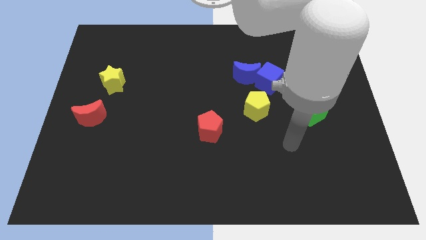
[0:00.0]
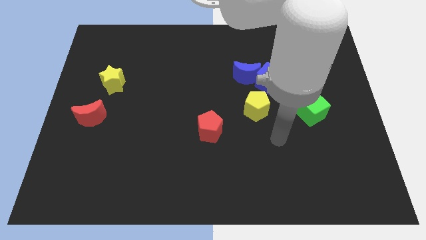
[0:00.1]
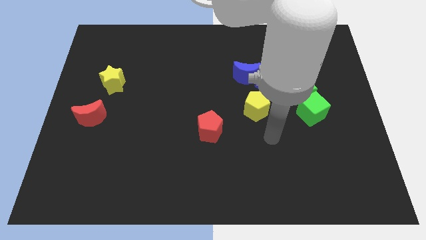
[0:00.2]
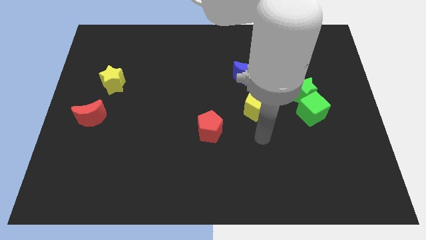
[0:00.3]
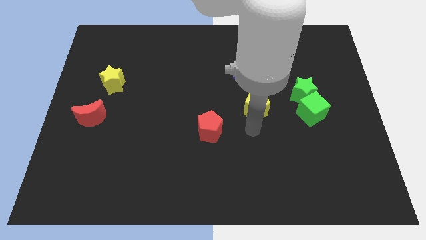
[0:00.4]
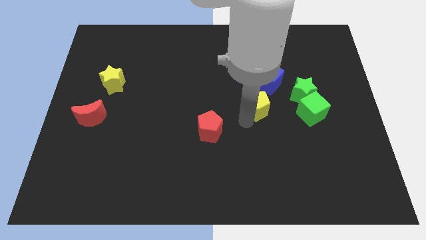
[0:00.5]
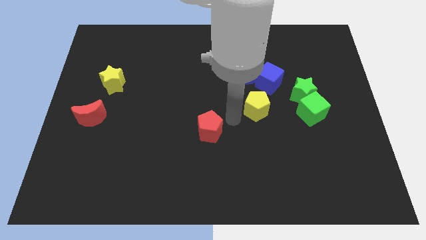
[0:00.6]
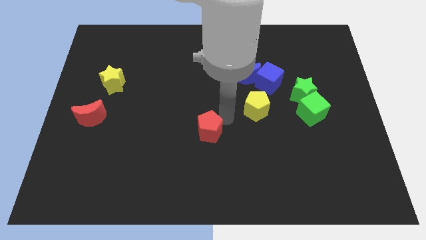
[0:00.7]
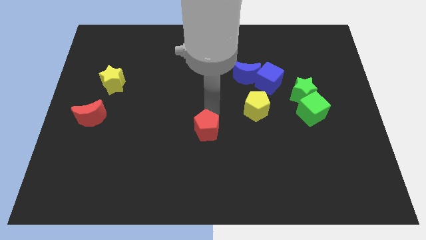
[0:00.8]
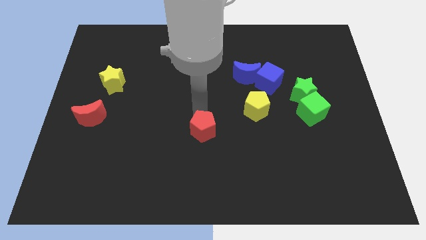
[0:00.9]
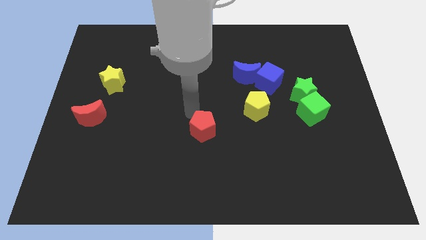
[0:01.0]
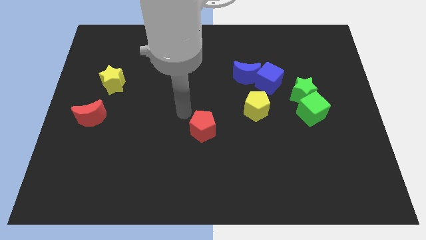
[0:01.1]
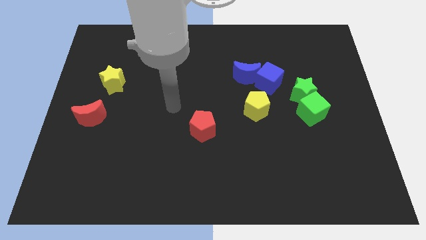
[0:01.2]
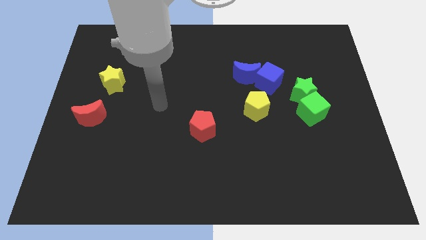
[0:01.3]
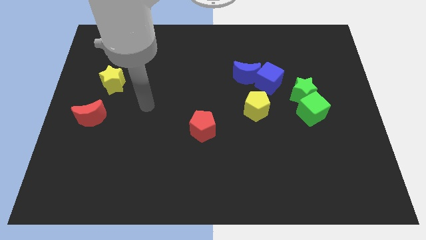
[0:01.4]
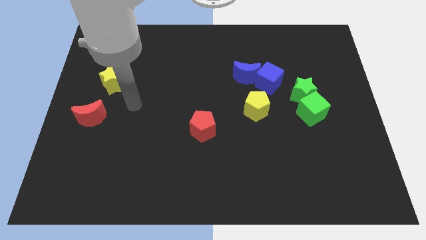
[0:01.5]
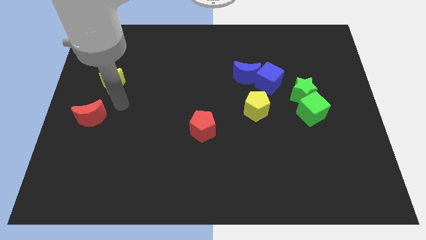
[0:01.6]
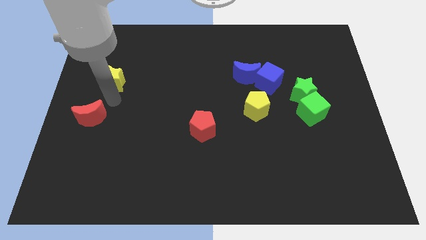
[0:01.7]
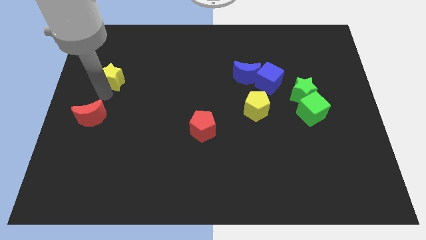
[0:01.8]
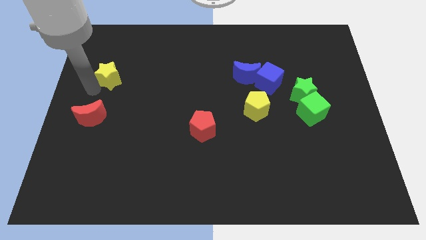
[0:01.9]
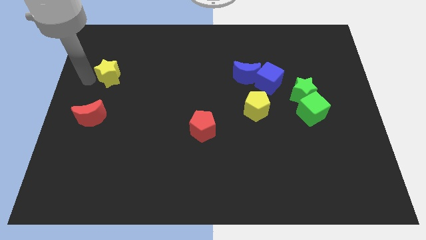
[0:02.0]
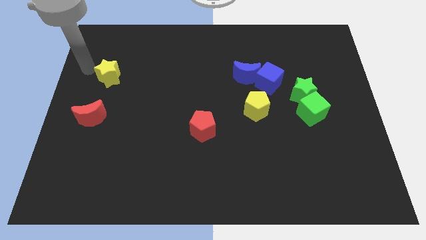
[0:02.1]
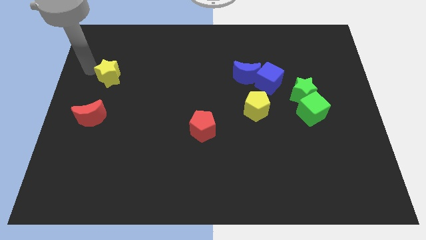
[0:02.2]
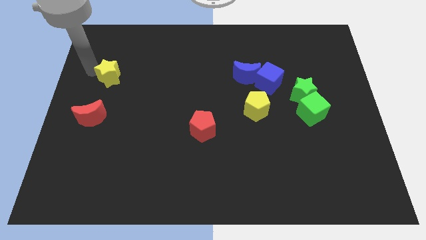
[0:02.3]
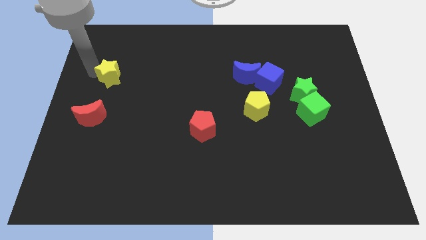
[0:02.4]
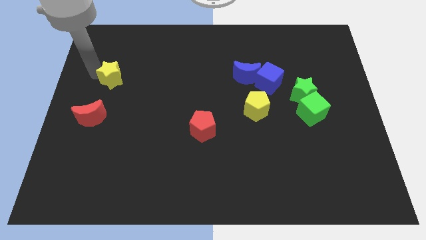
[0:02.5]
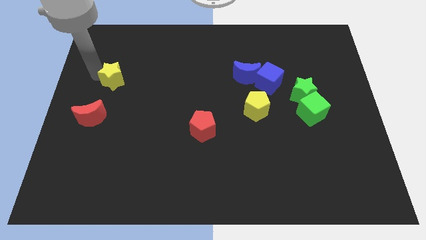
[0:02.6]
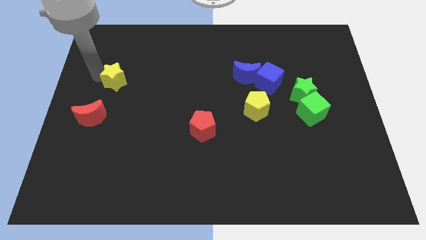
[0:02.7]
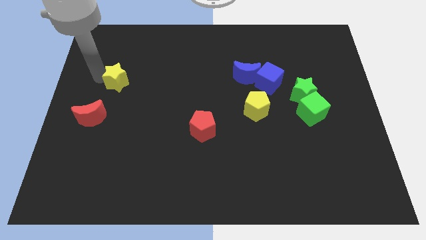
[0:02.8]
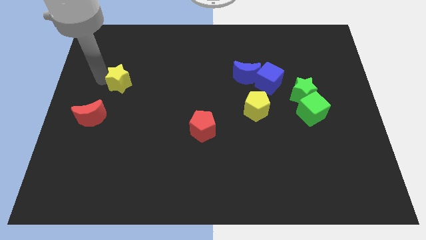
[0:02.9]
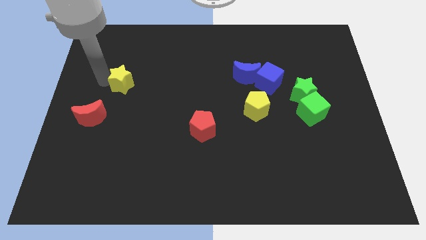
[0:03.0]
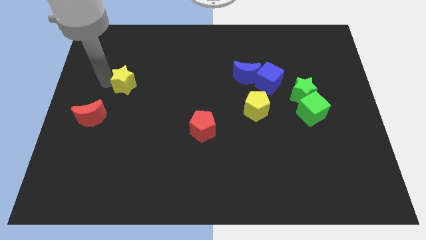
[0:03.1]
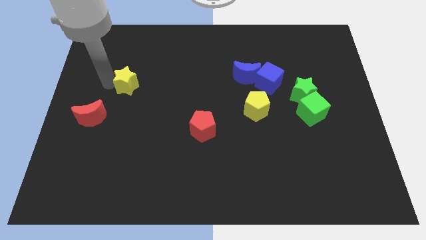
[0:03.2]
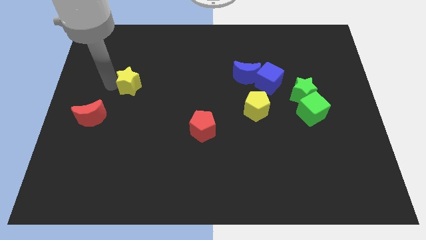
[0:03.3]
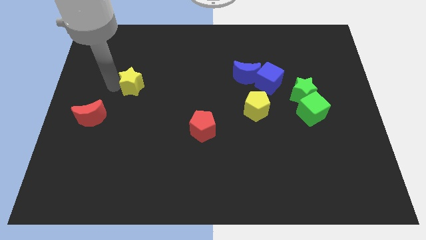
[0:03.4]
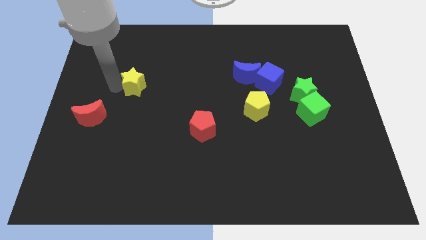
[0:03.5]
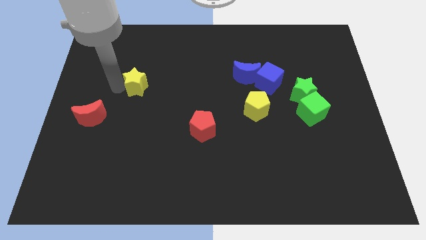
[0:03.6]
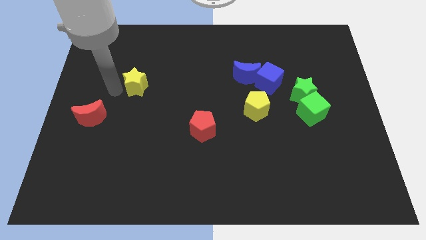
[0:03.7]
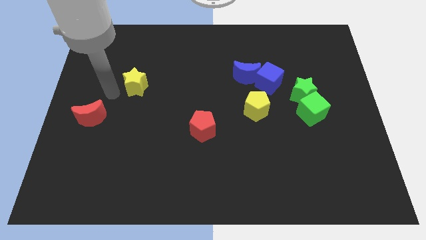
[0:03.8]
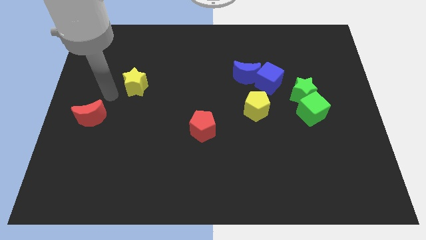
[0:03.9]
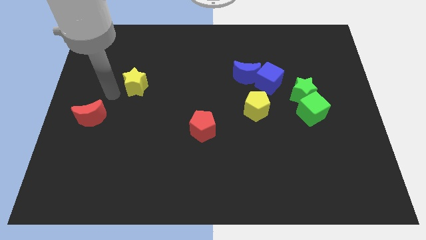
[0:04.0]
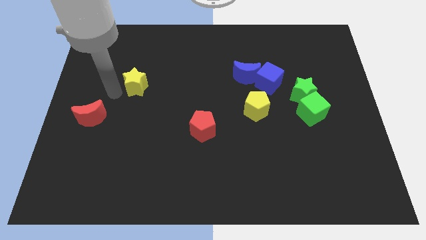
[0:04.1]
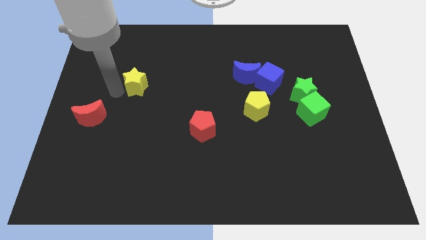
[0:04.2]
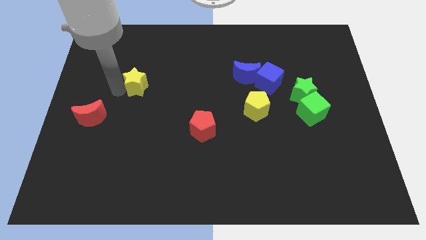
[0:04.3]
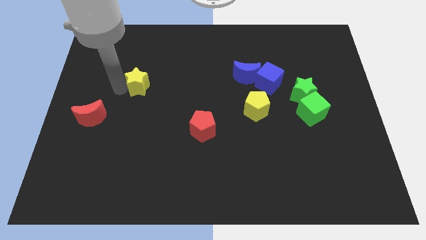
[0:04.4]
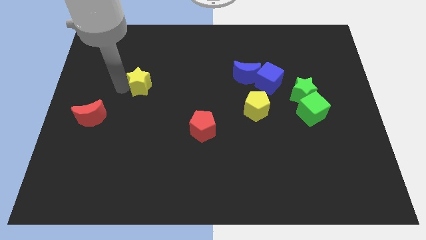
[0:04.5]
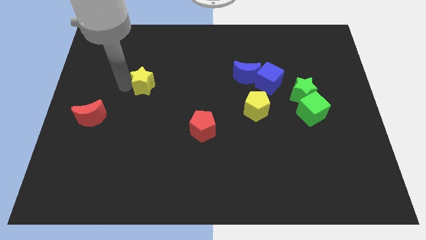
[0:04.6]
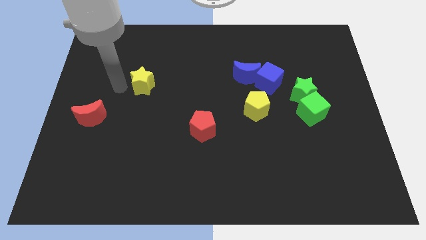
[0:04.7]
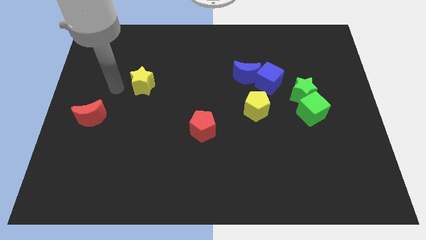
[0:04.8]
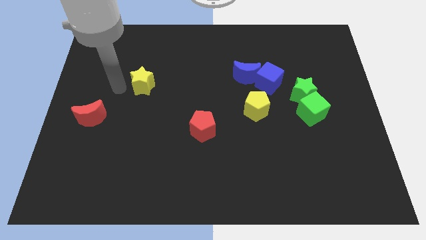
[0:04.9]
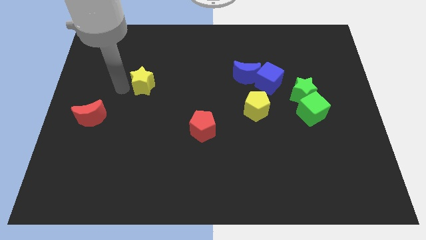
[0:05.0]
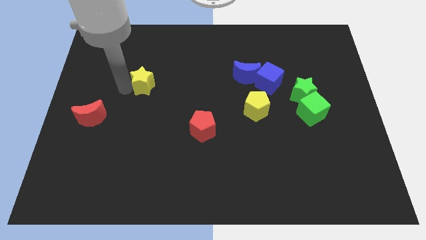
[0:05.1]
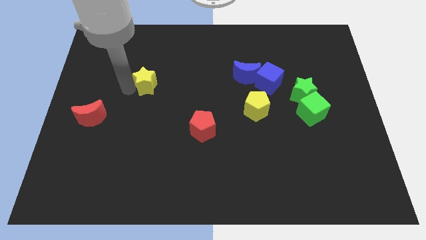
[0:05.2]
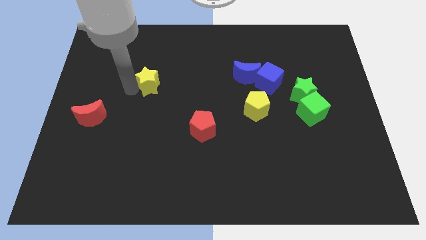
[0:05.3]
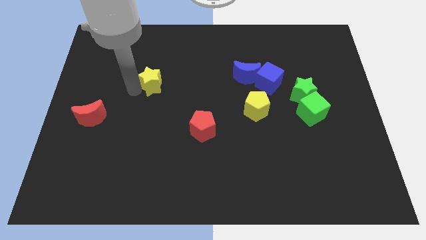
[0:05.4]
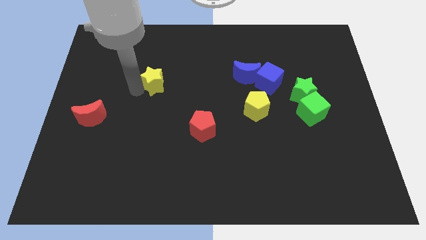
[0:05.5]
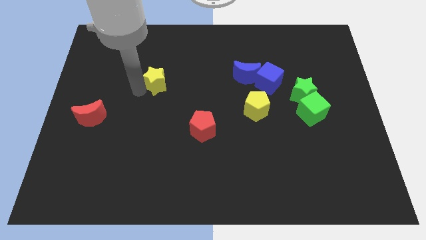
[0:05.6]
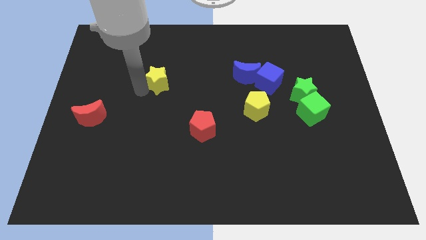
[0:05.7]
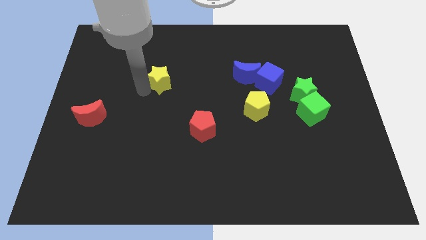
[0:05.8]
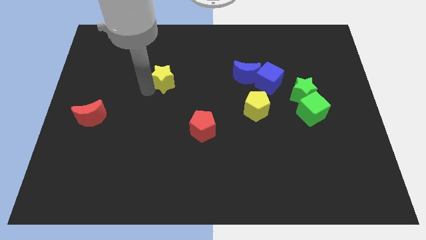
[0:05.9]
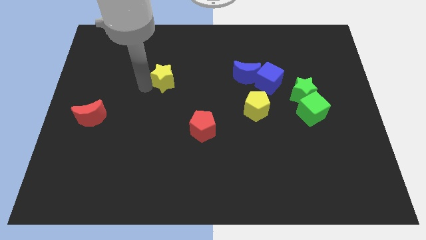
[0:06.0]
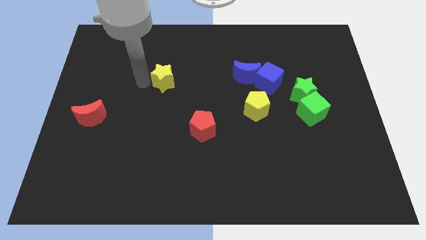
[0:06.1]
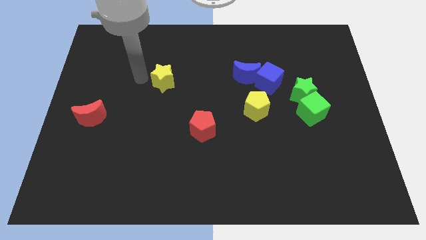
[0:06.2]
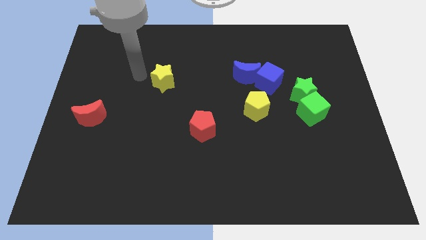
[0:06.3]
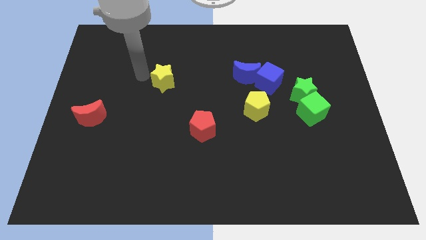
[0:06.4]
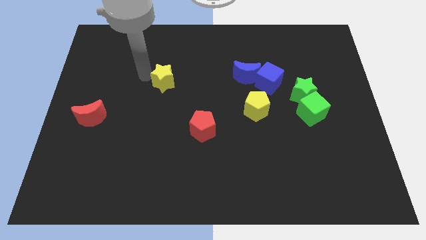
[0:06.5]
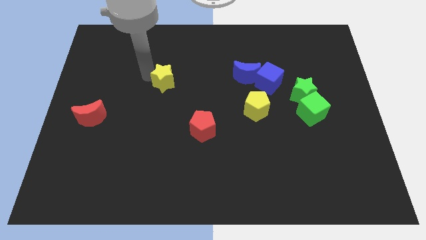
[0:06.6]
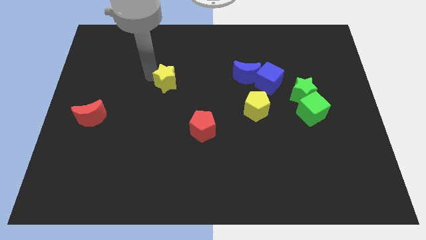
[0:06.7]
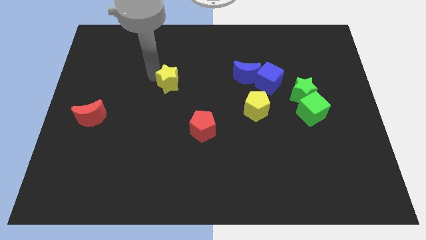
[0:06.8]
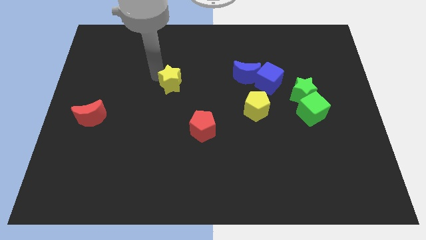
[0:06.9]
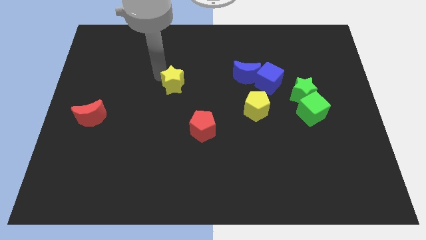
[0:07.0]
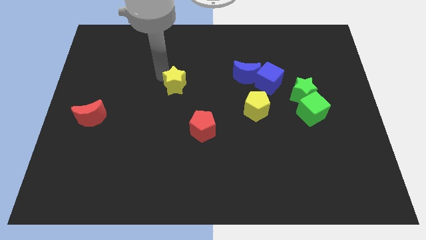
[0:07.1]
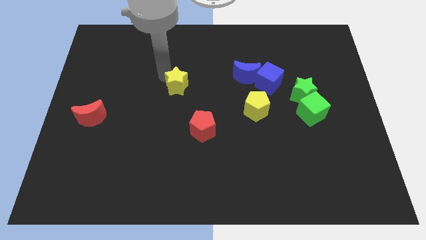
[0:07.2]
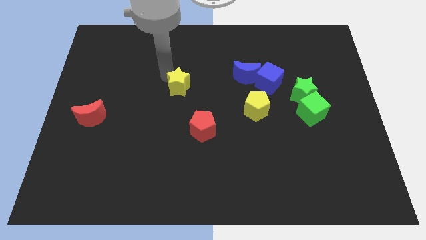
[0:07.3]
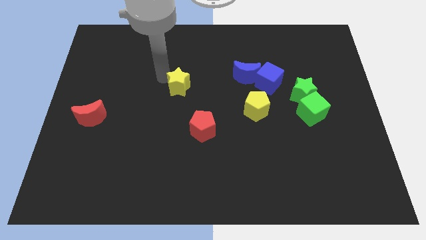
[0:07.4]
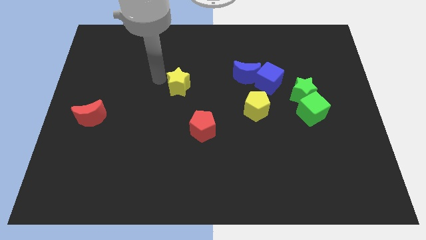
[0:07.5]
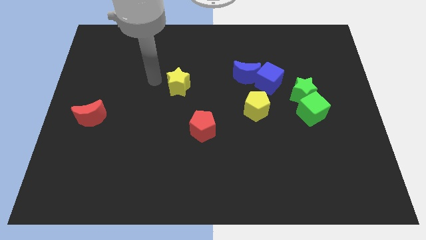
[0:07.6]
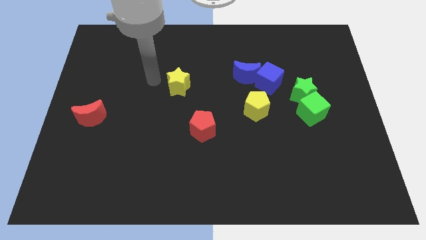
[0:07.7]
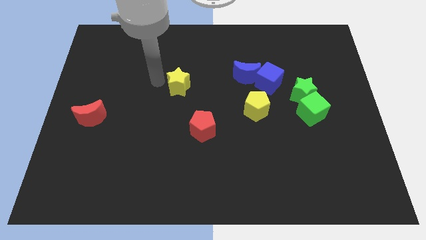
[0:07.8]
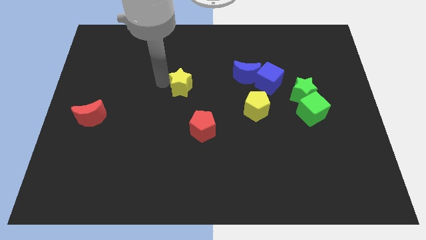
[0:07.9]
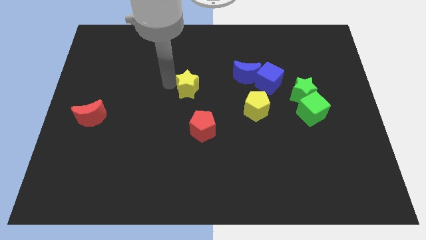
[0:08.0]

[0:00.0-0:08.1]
push the yellow star above the red pentagon
